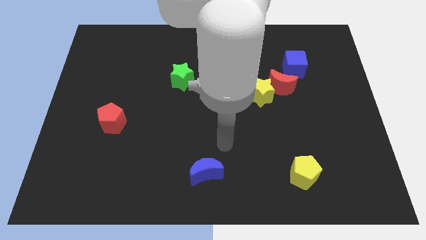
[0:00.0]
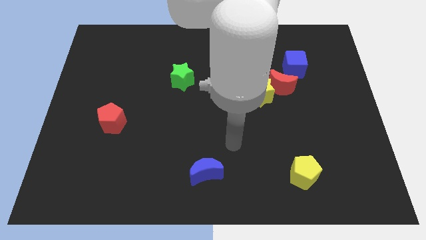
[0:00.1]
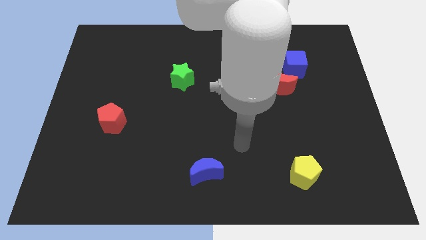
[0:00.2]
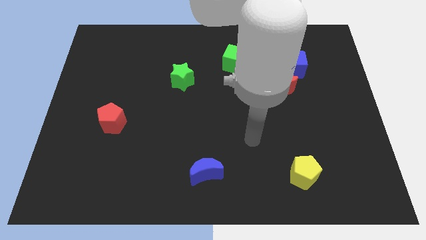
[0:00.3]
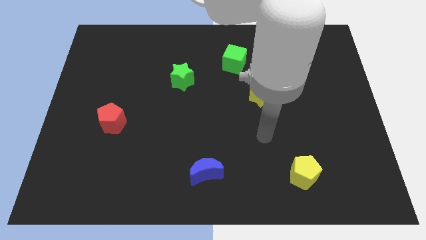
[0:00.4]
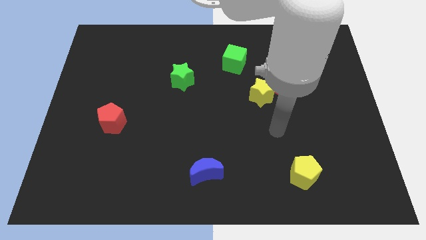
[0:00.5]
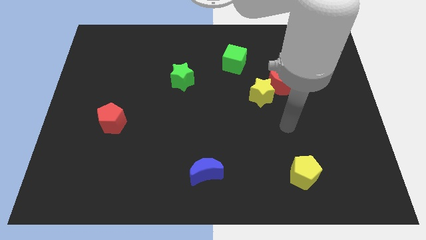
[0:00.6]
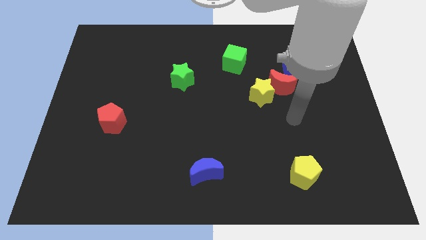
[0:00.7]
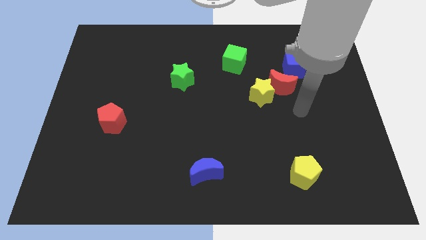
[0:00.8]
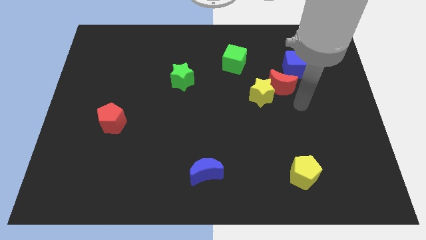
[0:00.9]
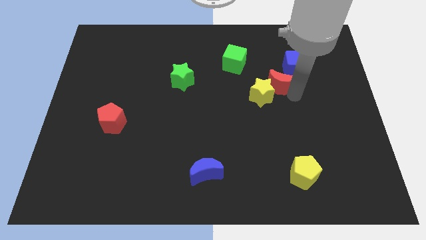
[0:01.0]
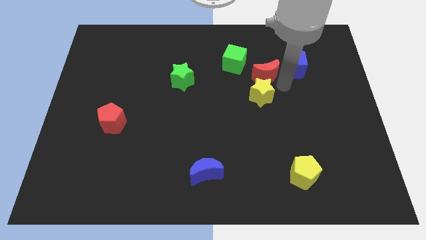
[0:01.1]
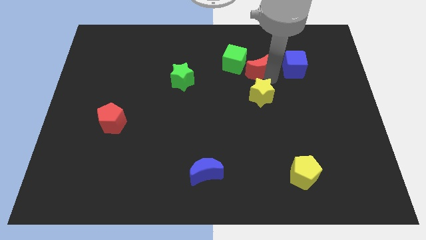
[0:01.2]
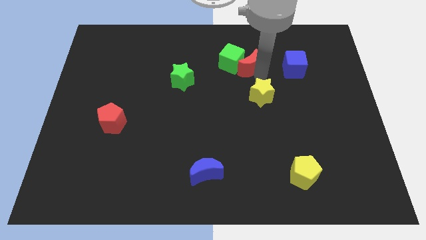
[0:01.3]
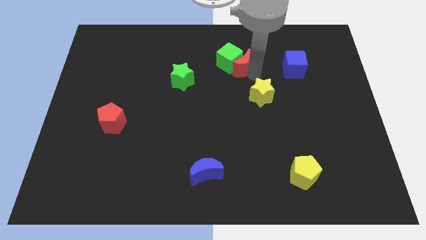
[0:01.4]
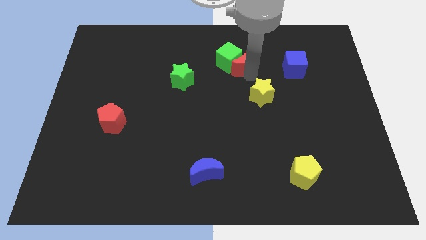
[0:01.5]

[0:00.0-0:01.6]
separate the yellow star from the red moon

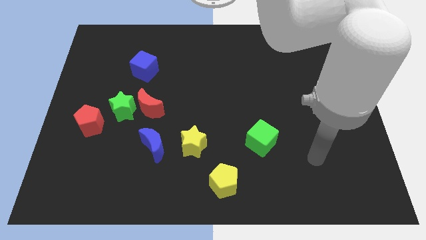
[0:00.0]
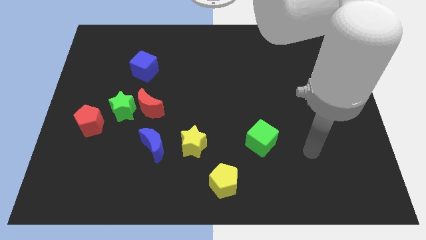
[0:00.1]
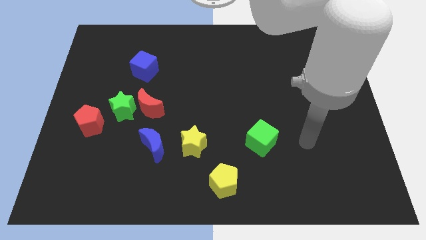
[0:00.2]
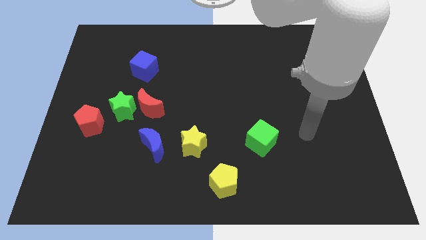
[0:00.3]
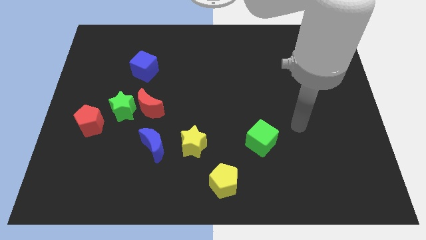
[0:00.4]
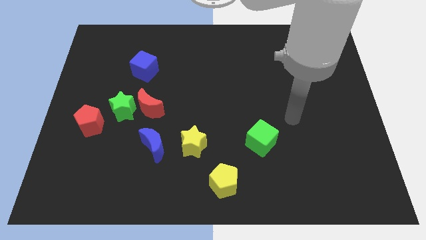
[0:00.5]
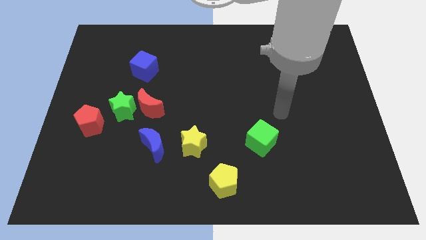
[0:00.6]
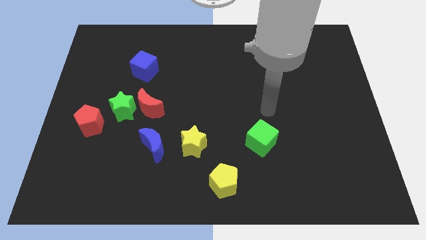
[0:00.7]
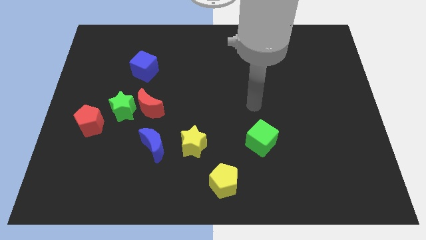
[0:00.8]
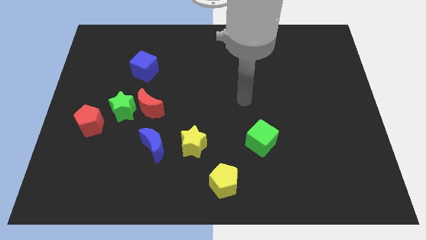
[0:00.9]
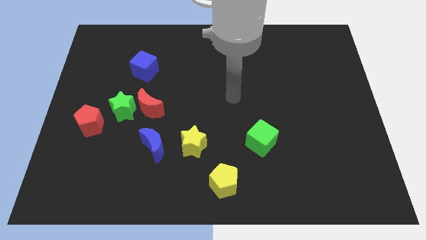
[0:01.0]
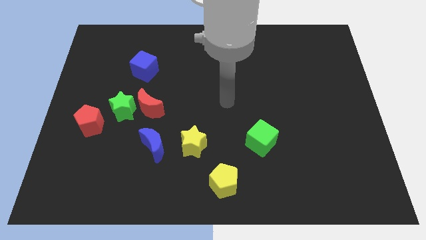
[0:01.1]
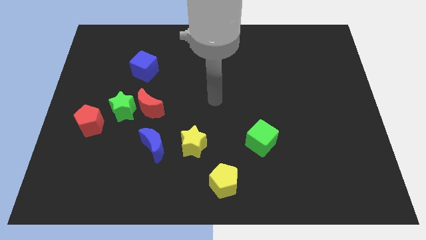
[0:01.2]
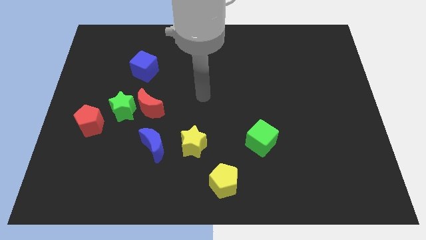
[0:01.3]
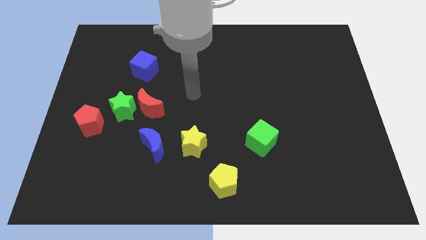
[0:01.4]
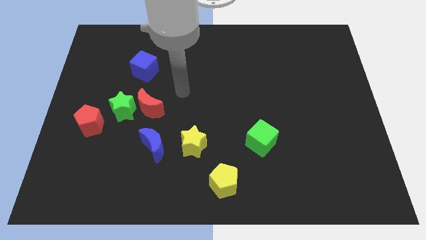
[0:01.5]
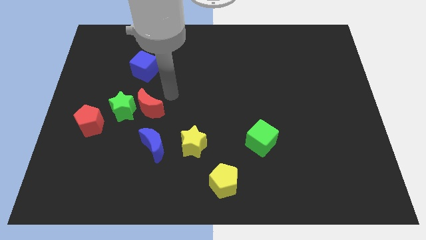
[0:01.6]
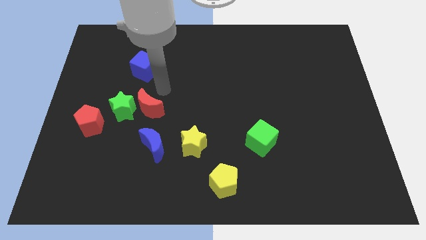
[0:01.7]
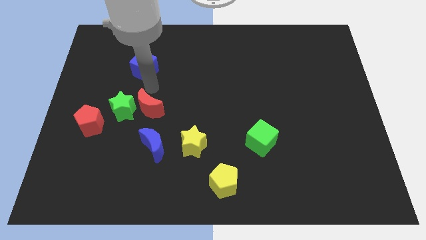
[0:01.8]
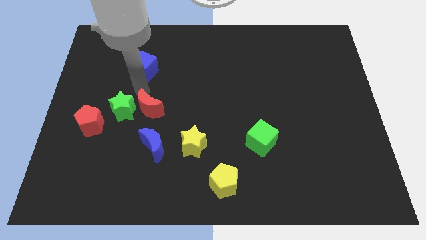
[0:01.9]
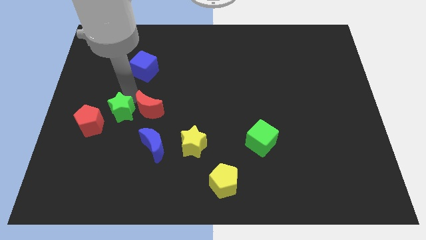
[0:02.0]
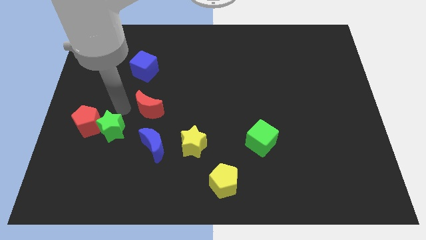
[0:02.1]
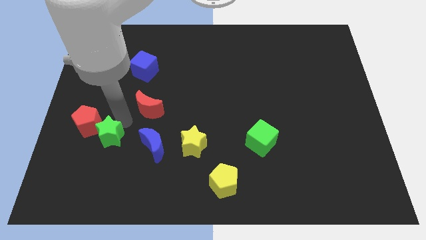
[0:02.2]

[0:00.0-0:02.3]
separate the red moon from the green star

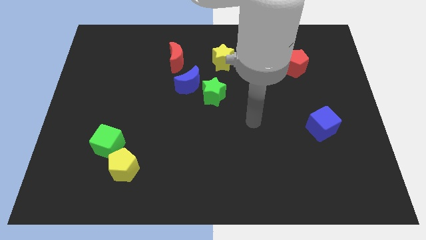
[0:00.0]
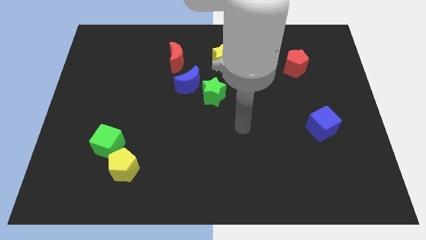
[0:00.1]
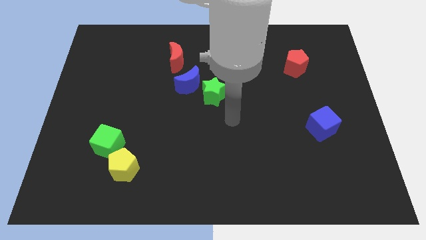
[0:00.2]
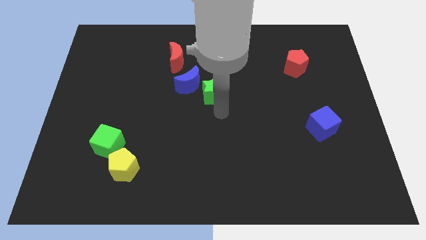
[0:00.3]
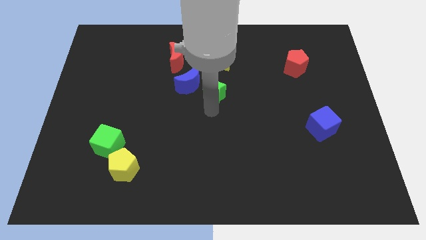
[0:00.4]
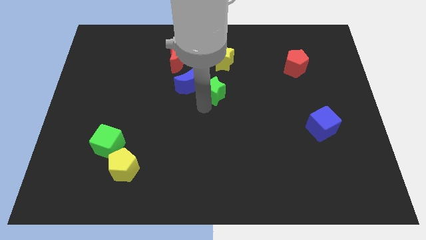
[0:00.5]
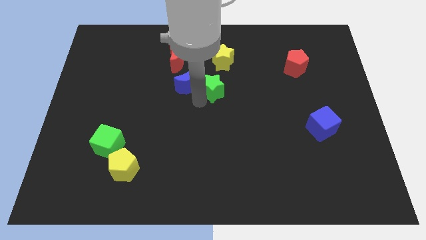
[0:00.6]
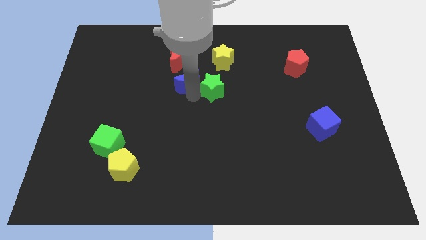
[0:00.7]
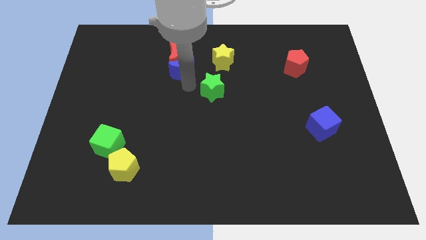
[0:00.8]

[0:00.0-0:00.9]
move the green star away from the blue moon

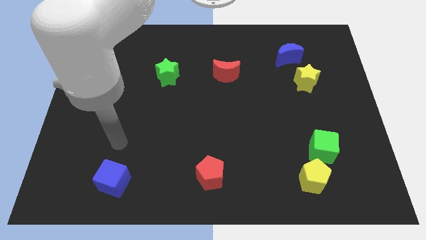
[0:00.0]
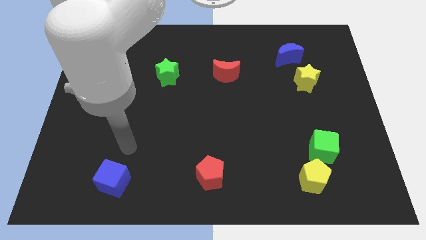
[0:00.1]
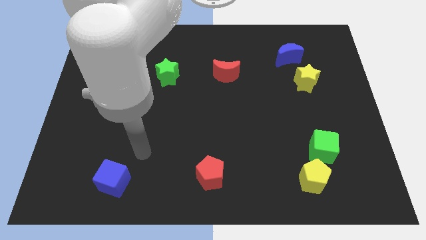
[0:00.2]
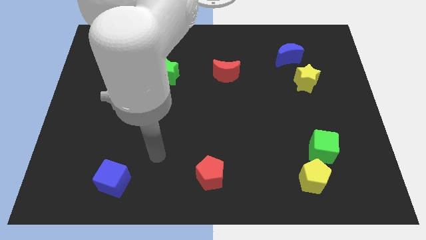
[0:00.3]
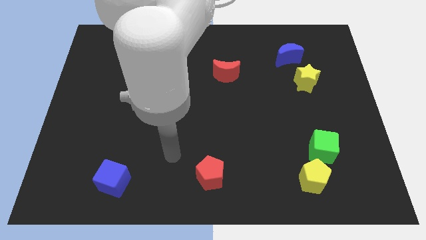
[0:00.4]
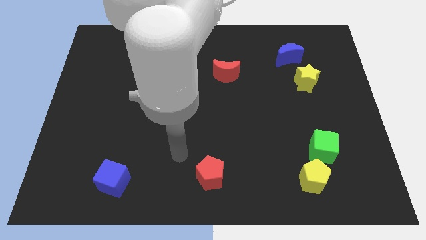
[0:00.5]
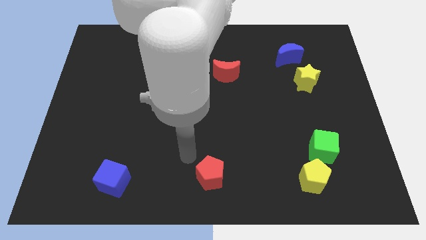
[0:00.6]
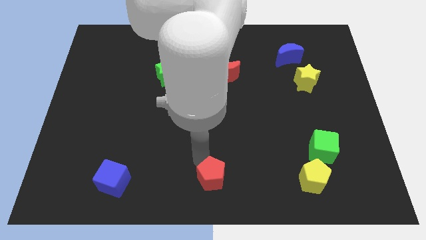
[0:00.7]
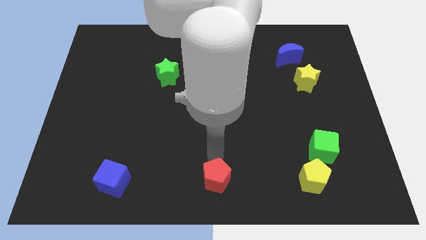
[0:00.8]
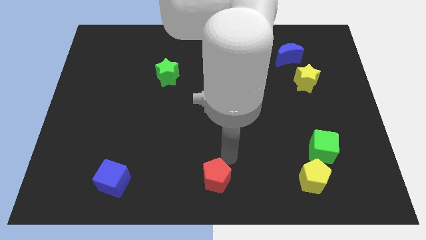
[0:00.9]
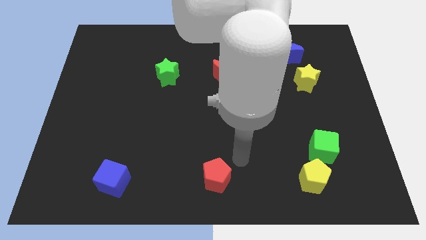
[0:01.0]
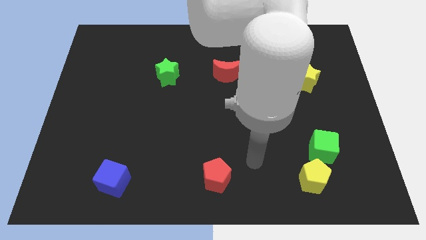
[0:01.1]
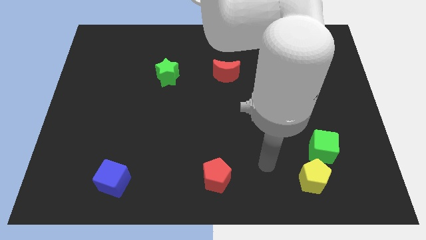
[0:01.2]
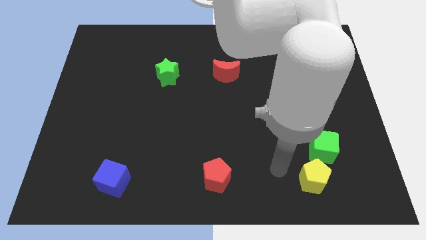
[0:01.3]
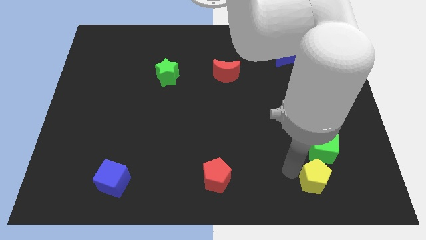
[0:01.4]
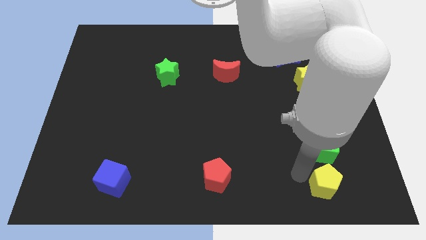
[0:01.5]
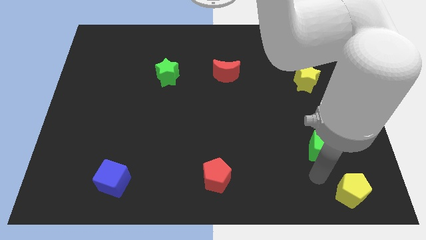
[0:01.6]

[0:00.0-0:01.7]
separate the green cube from the yellow pentagon

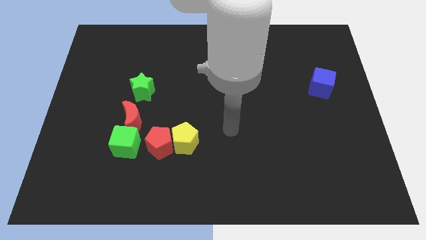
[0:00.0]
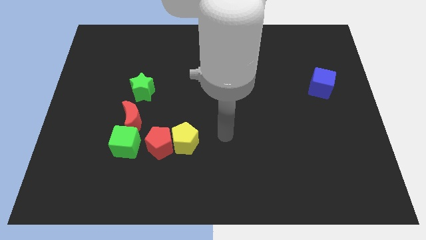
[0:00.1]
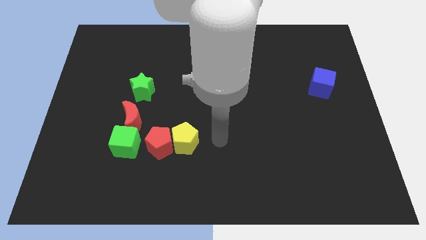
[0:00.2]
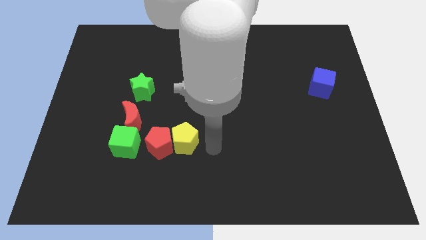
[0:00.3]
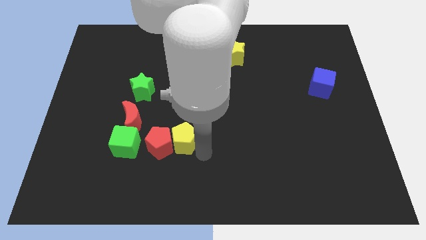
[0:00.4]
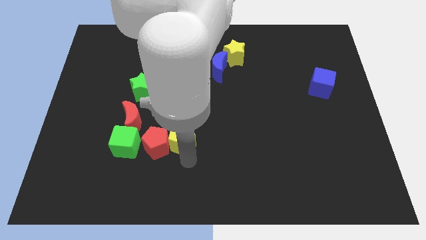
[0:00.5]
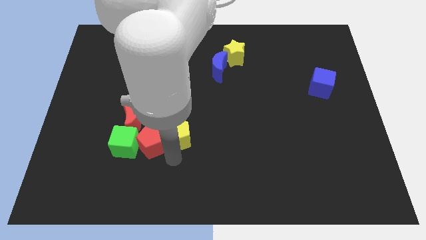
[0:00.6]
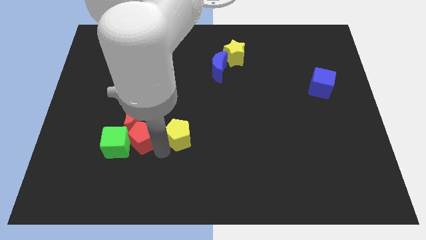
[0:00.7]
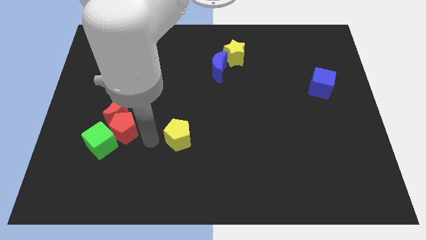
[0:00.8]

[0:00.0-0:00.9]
separate the yellow pentagon from the red pentagon

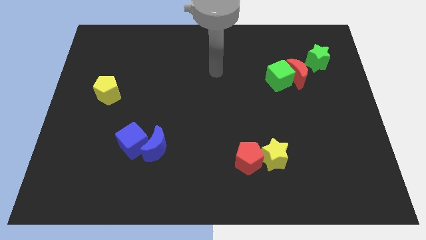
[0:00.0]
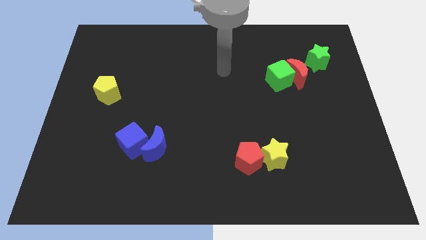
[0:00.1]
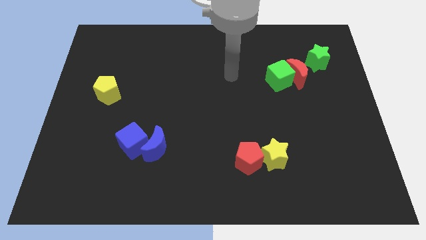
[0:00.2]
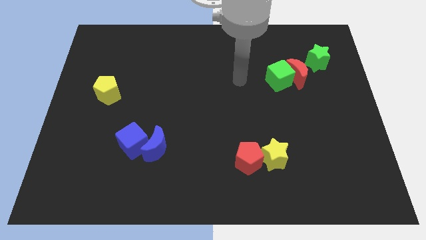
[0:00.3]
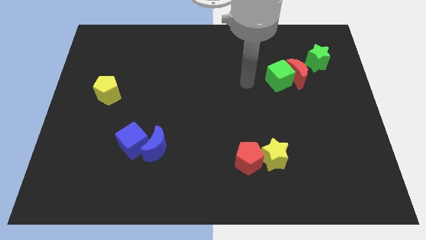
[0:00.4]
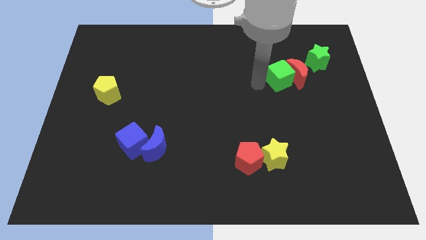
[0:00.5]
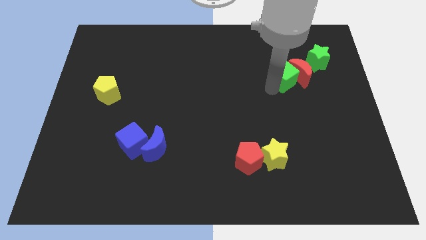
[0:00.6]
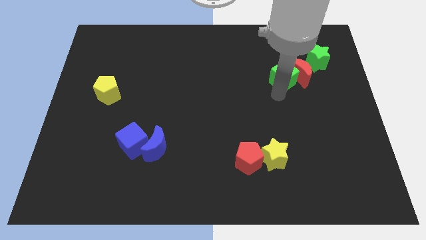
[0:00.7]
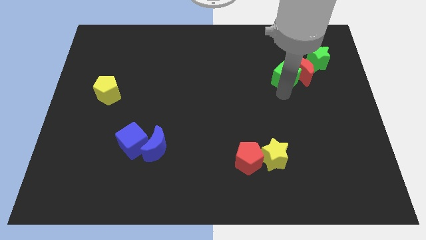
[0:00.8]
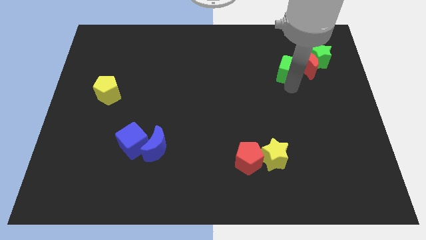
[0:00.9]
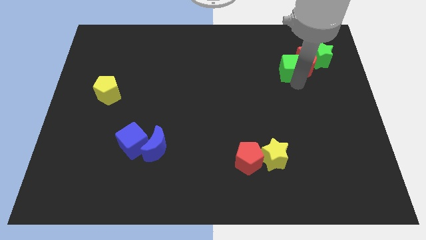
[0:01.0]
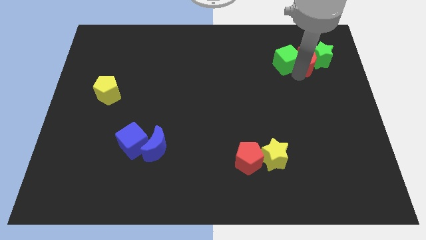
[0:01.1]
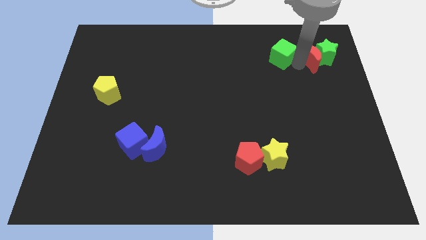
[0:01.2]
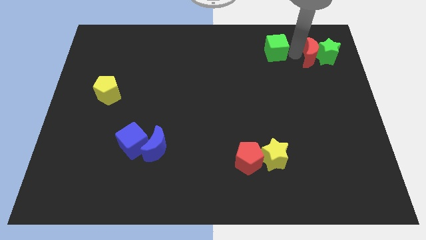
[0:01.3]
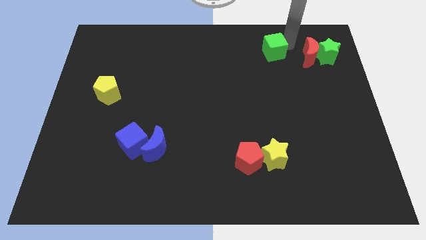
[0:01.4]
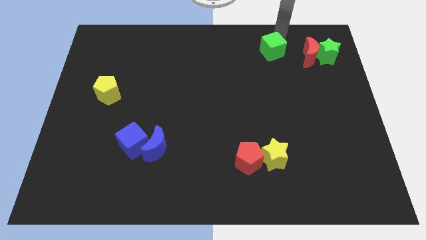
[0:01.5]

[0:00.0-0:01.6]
separate the green cube from the red moon

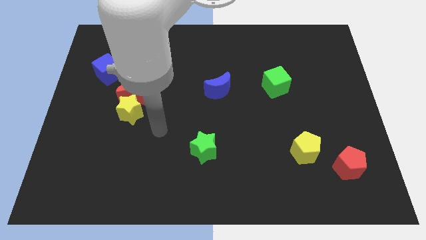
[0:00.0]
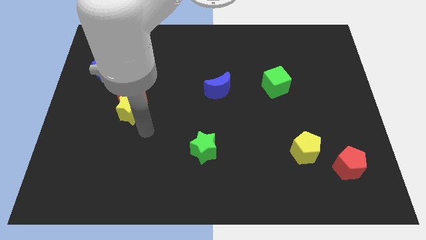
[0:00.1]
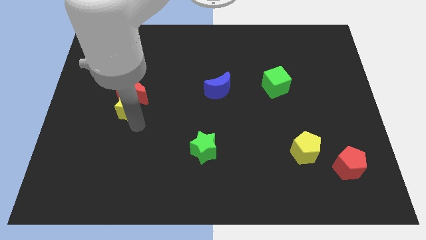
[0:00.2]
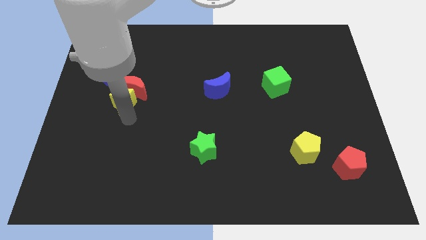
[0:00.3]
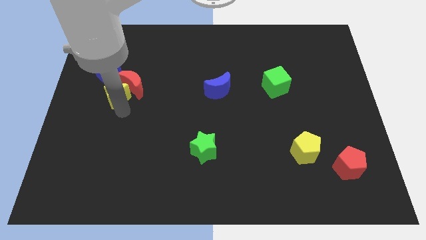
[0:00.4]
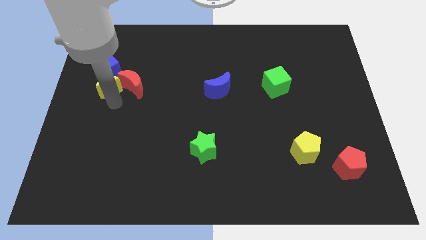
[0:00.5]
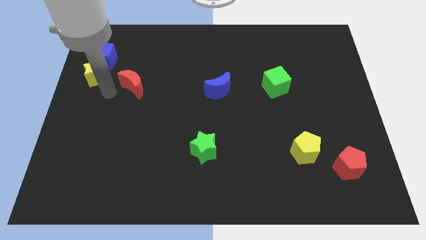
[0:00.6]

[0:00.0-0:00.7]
move the red moon away from the yellow star
